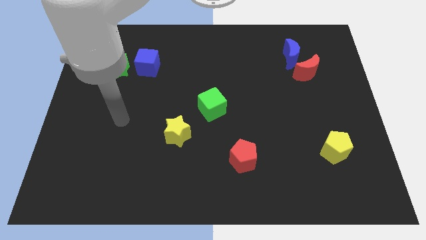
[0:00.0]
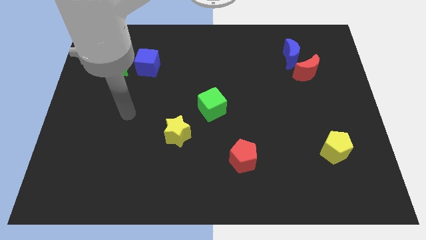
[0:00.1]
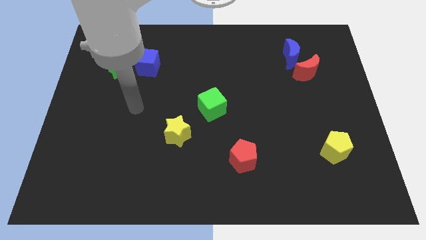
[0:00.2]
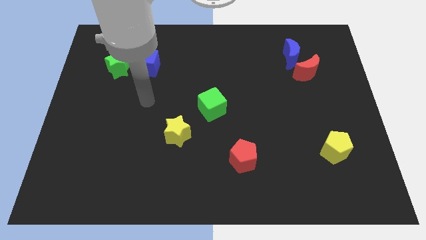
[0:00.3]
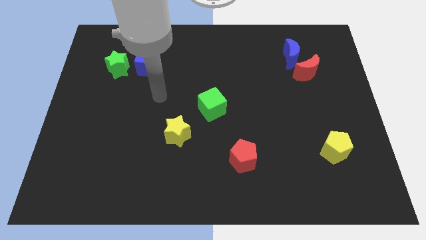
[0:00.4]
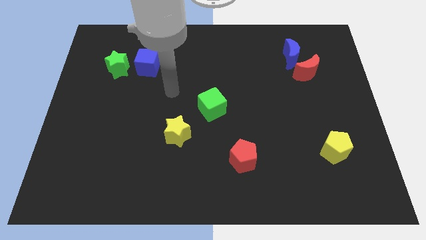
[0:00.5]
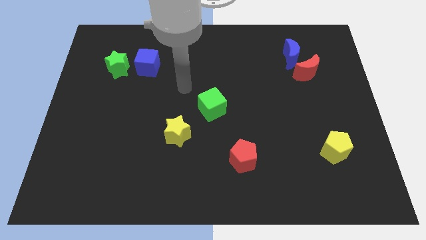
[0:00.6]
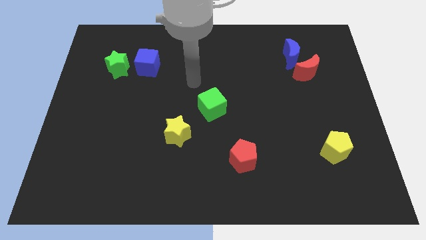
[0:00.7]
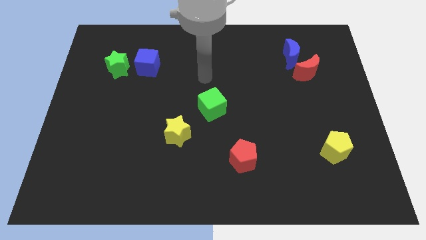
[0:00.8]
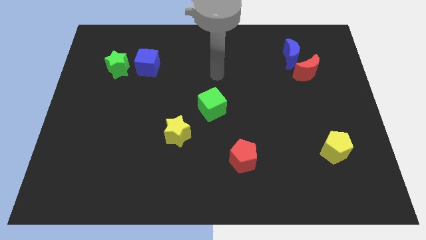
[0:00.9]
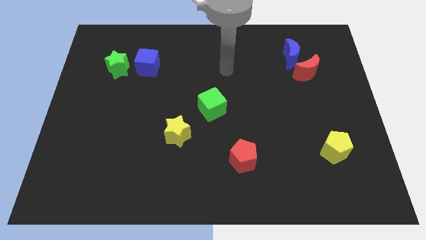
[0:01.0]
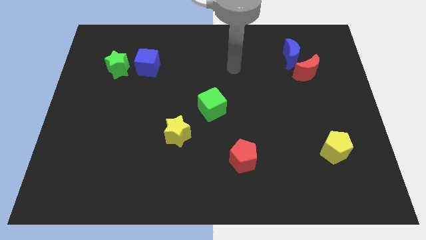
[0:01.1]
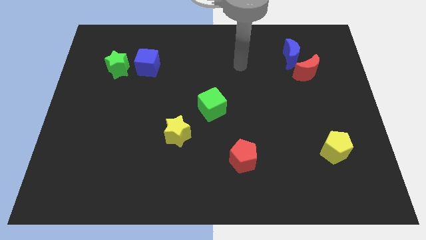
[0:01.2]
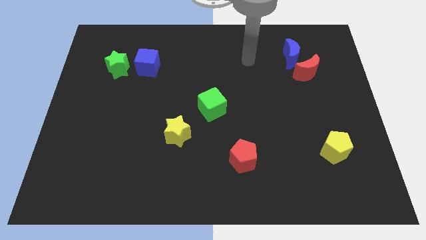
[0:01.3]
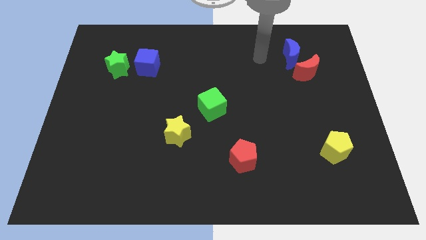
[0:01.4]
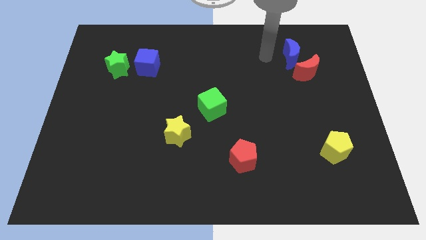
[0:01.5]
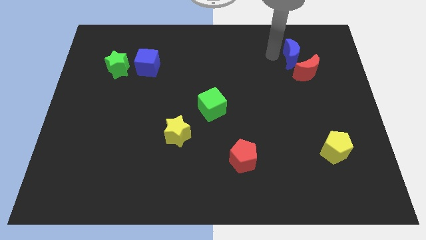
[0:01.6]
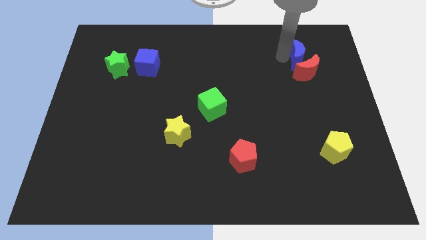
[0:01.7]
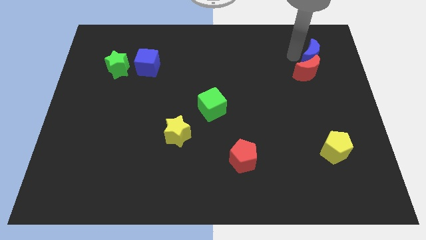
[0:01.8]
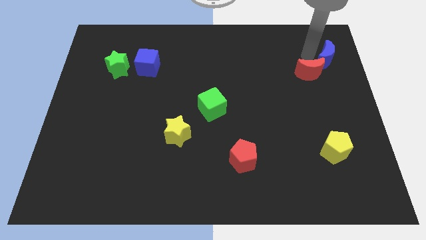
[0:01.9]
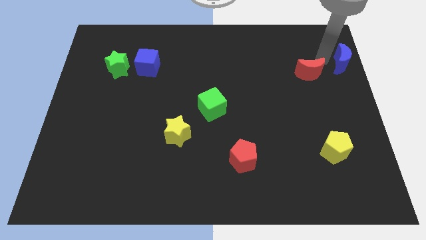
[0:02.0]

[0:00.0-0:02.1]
pull the red moon apart from the blue moon

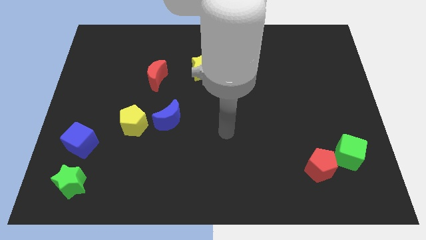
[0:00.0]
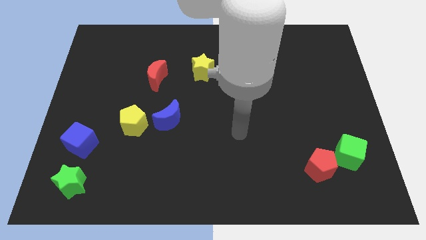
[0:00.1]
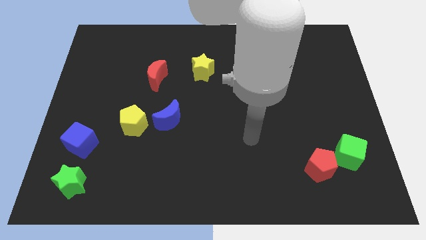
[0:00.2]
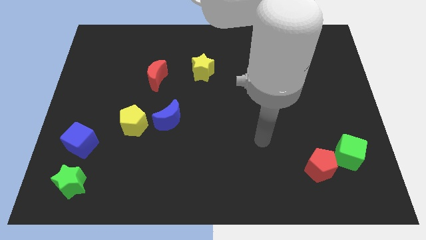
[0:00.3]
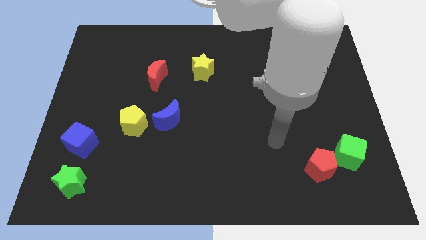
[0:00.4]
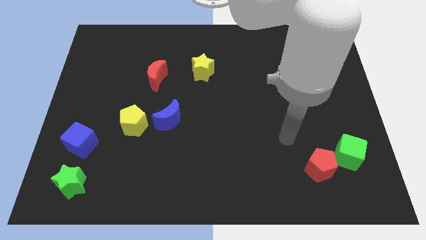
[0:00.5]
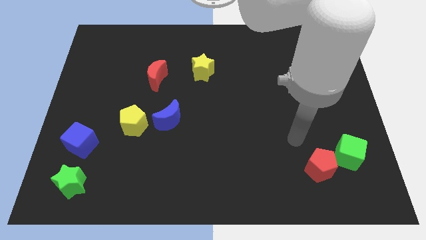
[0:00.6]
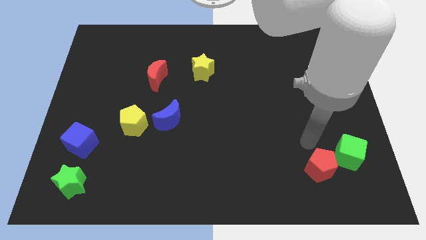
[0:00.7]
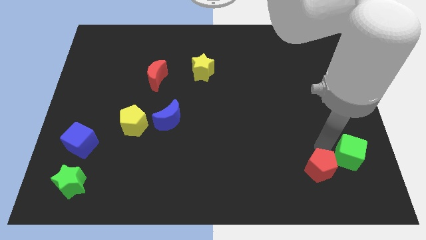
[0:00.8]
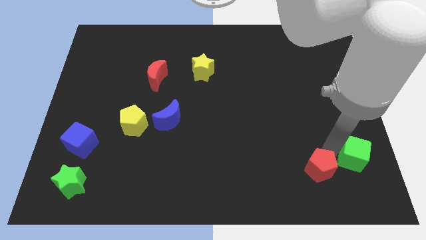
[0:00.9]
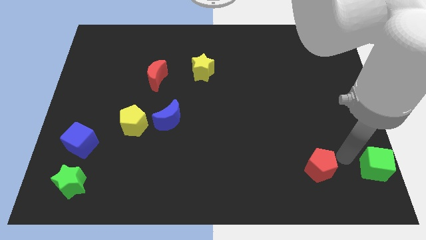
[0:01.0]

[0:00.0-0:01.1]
separate the red pentagon from the green cube

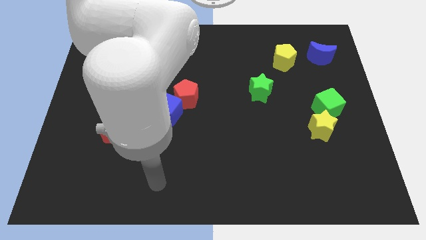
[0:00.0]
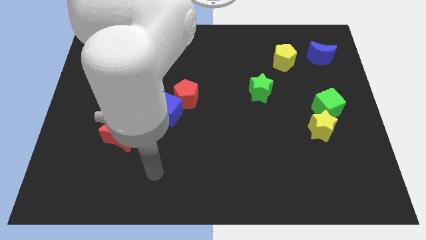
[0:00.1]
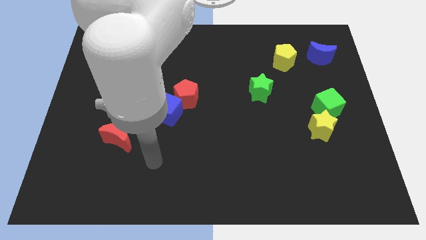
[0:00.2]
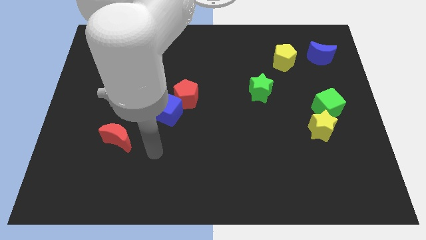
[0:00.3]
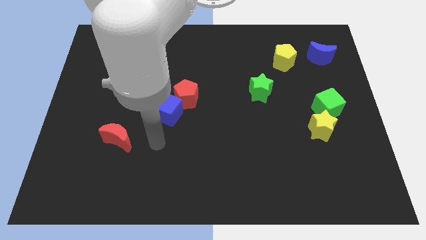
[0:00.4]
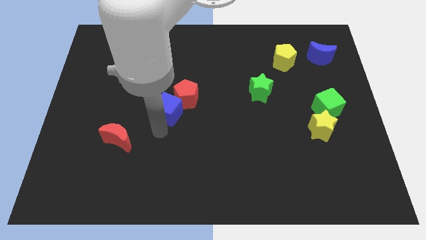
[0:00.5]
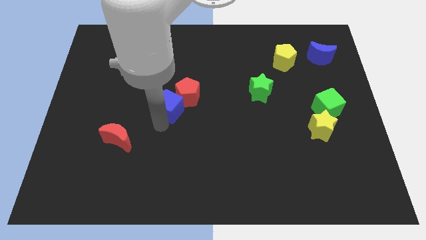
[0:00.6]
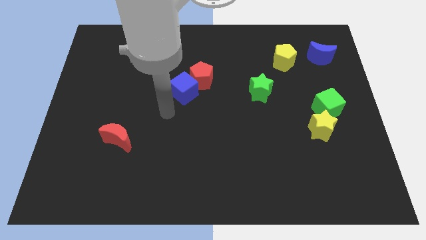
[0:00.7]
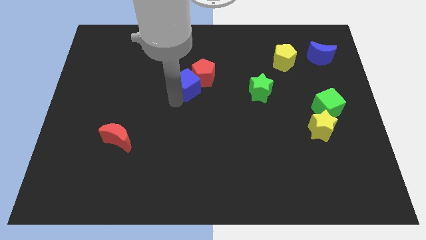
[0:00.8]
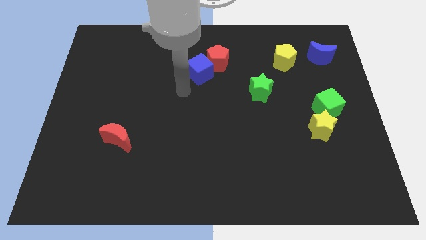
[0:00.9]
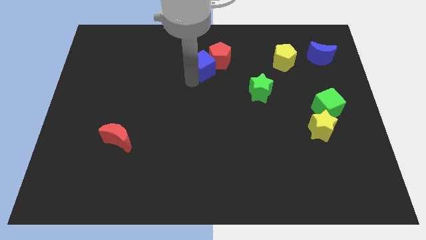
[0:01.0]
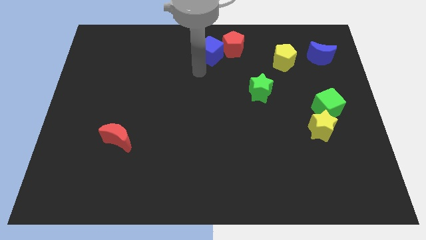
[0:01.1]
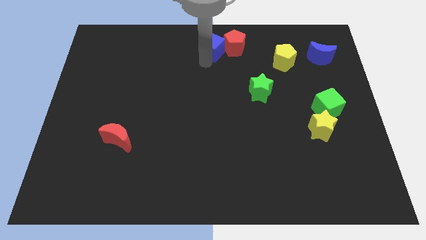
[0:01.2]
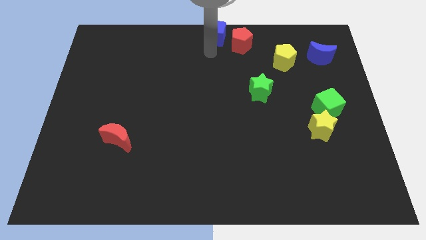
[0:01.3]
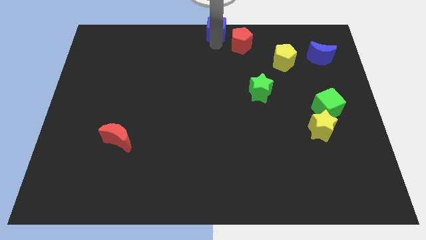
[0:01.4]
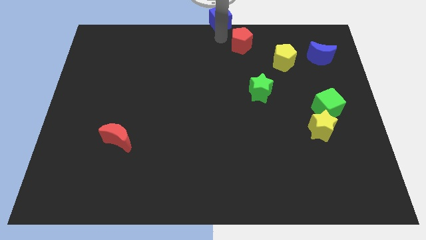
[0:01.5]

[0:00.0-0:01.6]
pull the red pentagon apart from the blue cube

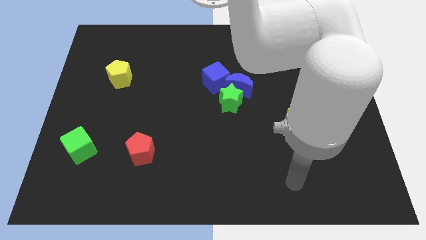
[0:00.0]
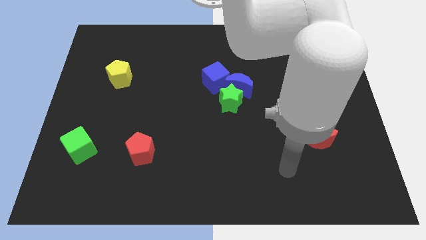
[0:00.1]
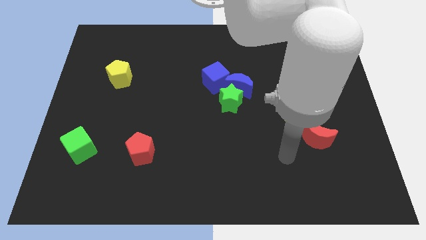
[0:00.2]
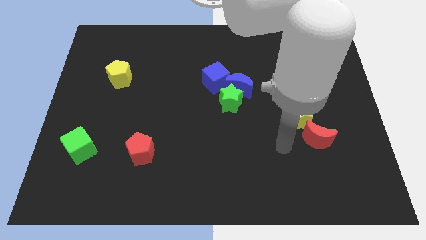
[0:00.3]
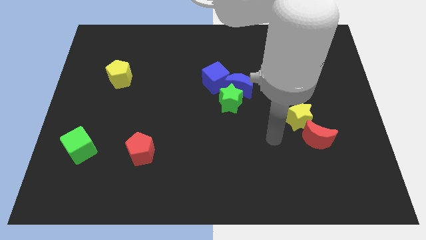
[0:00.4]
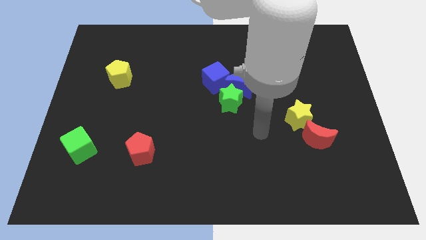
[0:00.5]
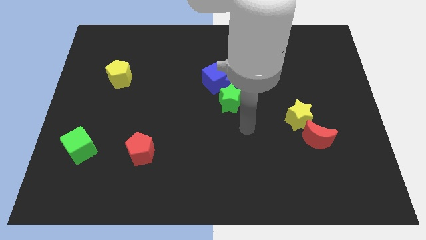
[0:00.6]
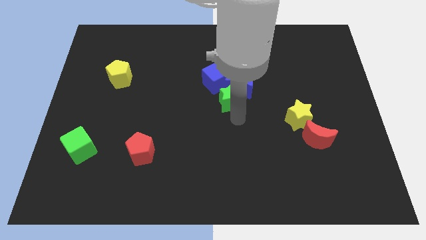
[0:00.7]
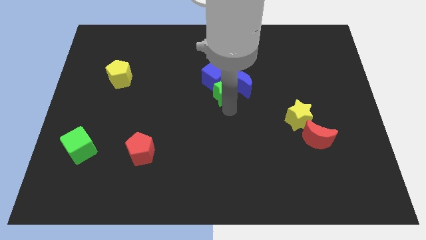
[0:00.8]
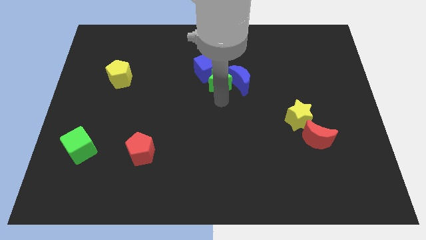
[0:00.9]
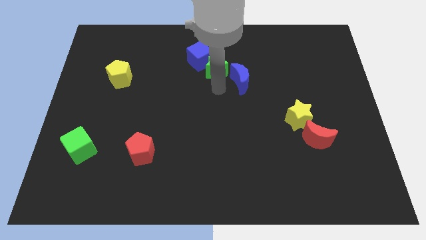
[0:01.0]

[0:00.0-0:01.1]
move the blue moon away from the green star and blue cube

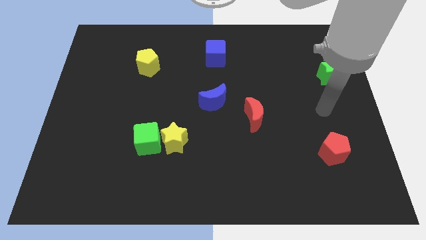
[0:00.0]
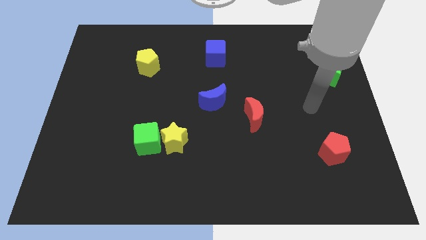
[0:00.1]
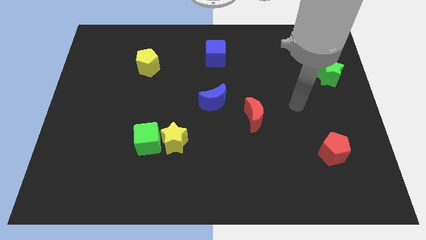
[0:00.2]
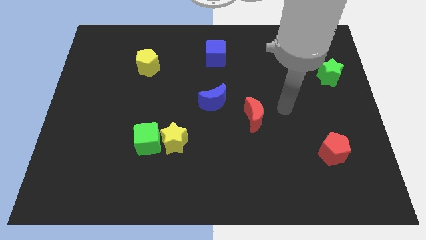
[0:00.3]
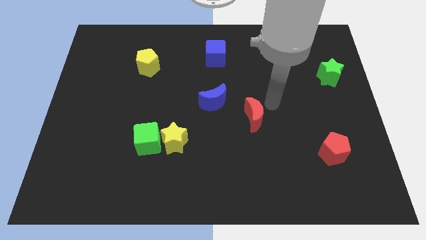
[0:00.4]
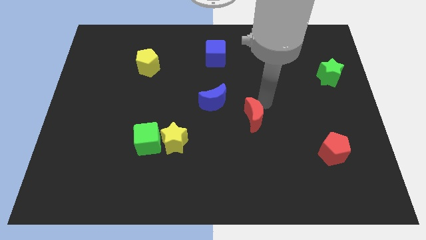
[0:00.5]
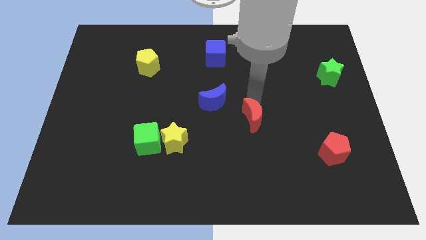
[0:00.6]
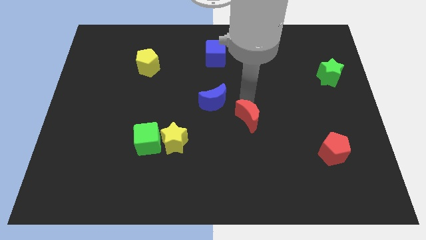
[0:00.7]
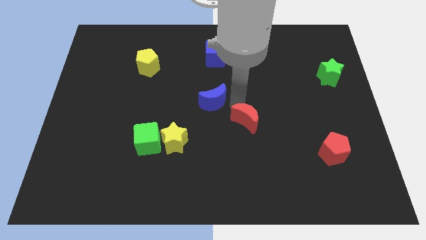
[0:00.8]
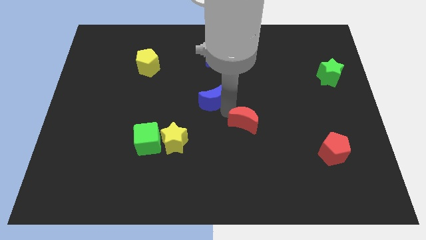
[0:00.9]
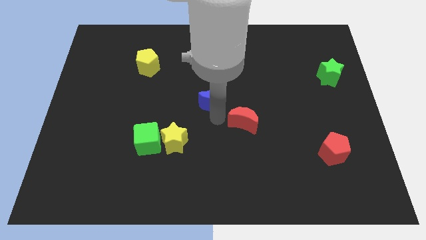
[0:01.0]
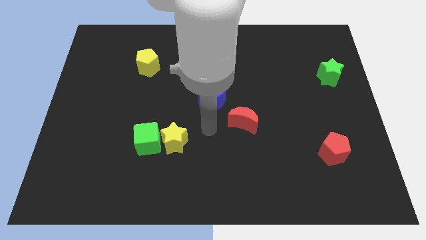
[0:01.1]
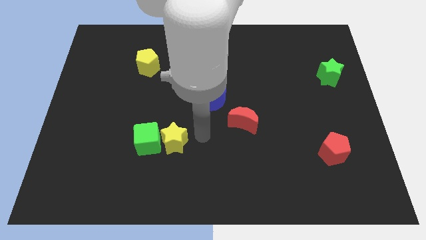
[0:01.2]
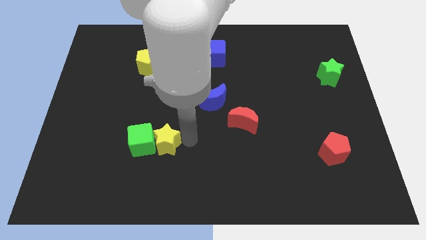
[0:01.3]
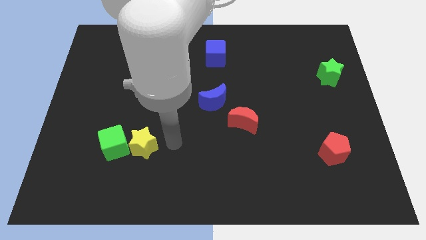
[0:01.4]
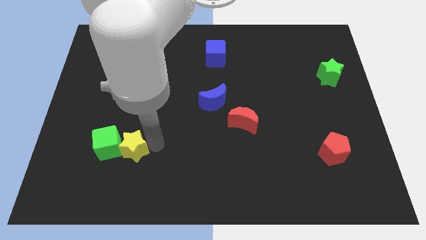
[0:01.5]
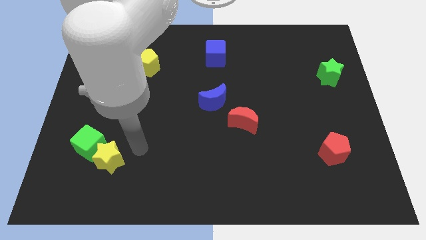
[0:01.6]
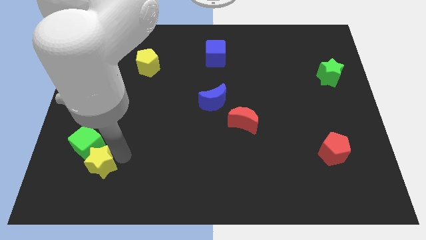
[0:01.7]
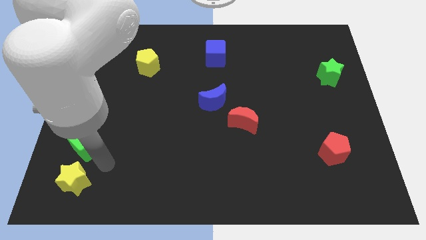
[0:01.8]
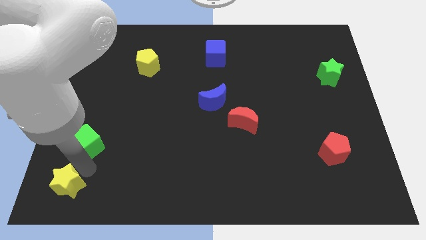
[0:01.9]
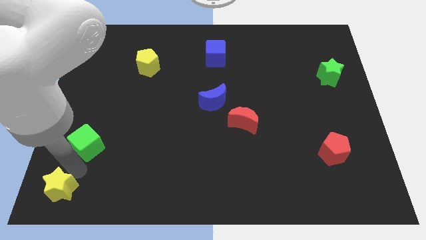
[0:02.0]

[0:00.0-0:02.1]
pull the green cube apart from the yellow star

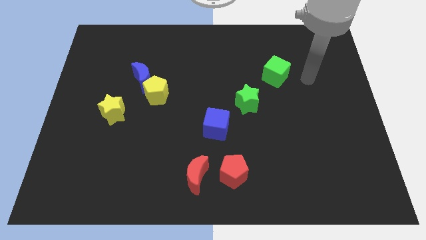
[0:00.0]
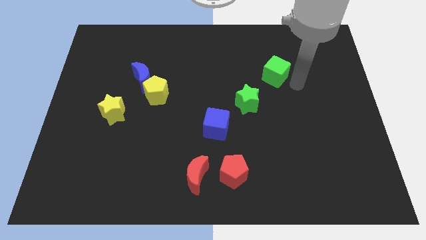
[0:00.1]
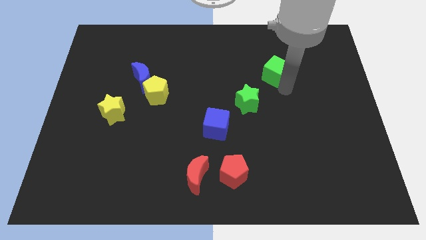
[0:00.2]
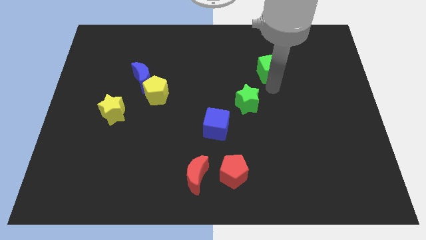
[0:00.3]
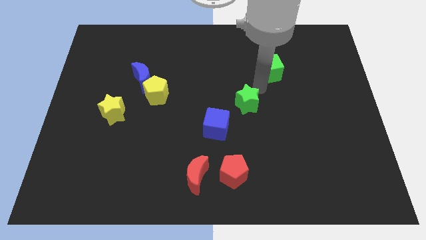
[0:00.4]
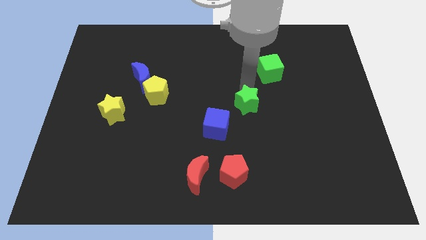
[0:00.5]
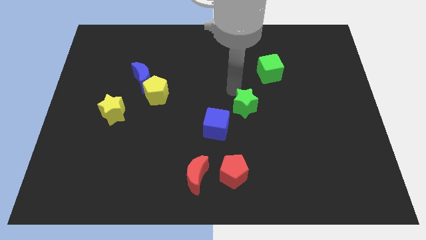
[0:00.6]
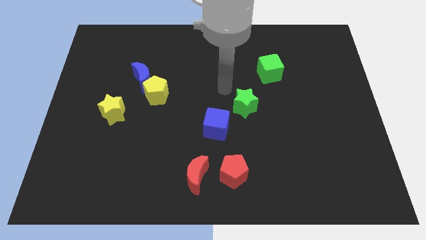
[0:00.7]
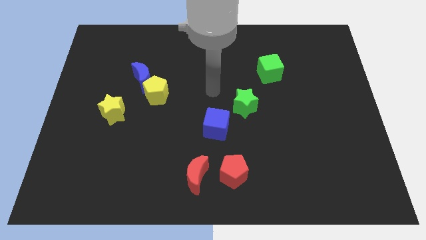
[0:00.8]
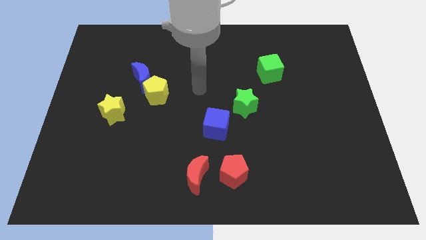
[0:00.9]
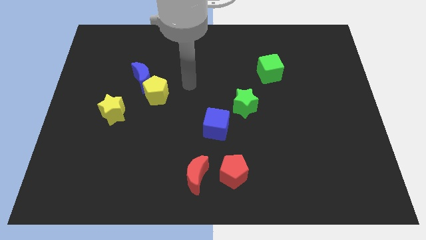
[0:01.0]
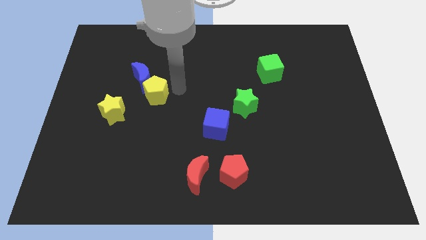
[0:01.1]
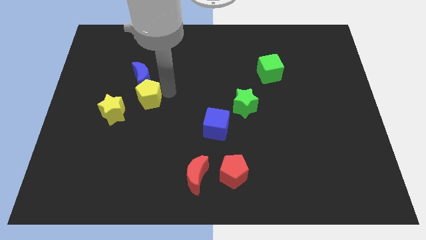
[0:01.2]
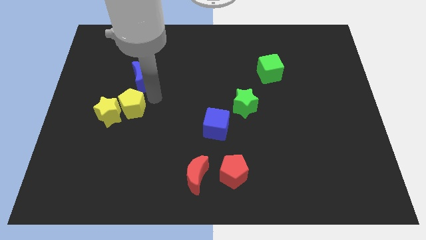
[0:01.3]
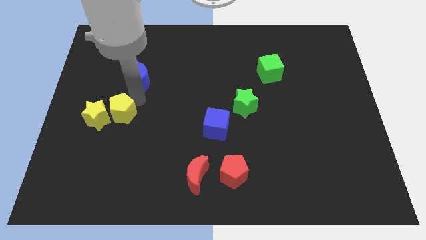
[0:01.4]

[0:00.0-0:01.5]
pull the blue moon apart from the yellow pentagon
